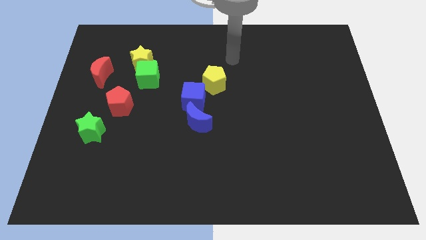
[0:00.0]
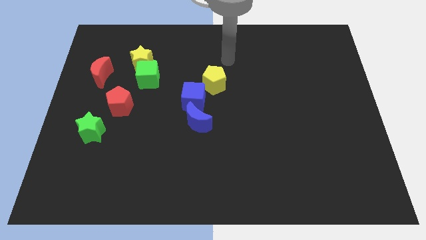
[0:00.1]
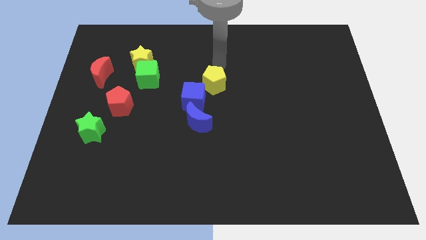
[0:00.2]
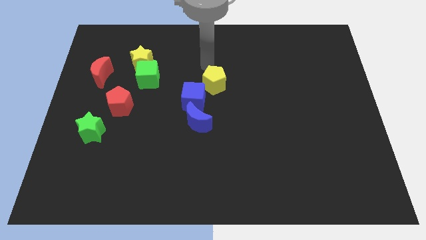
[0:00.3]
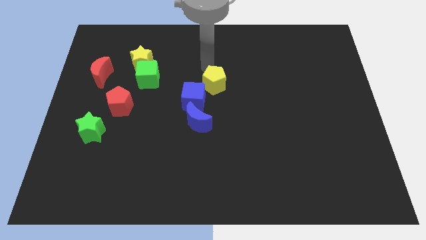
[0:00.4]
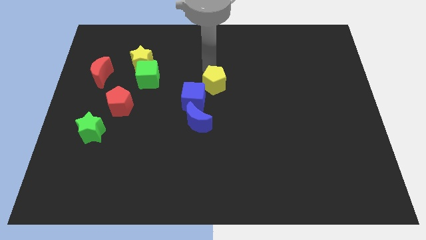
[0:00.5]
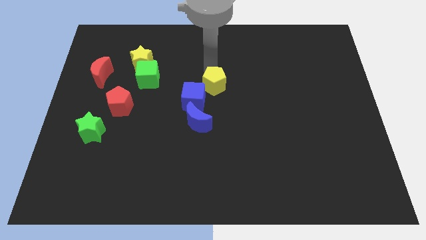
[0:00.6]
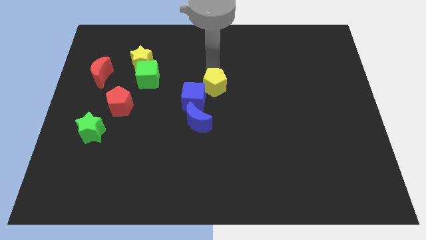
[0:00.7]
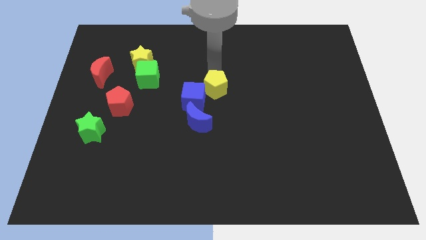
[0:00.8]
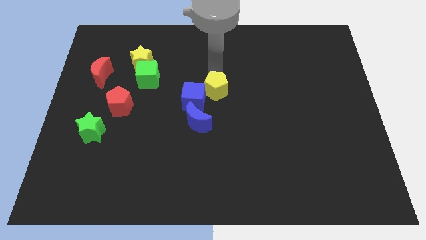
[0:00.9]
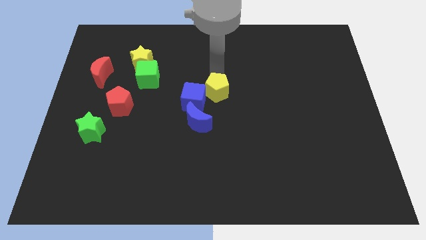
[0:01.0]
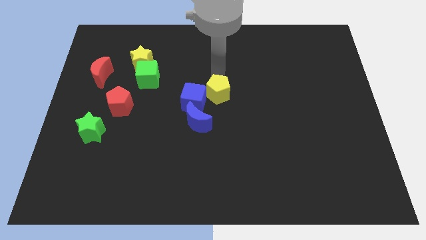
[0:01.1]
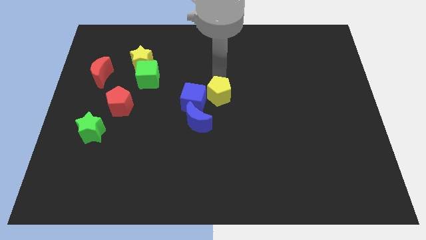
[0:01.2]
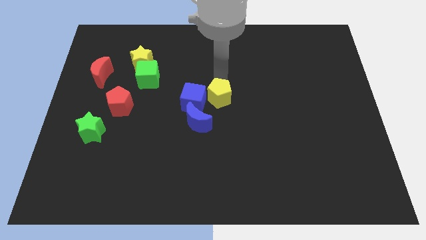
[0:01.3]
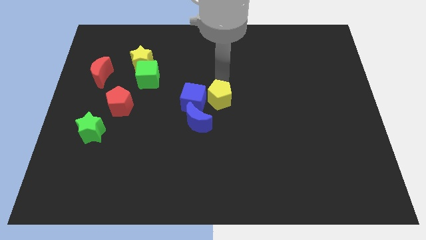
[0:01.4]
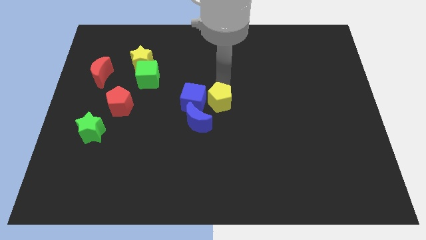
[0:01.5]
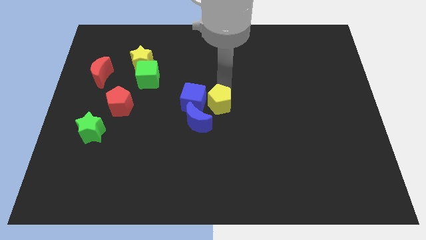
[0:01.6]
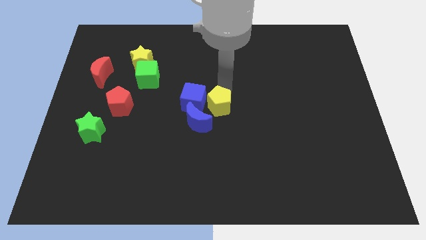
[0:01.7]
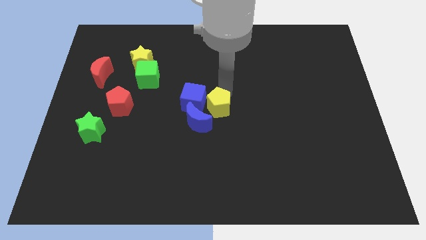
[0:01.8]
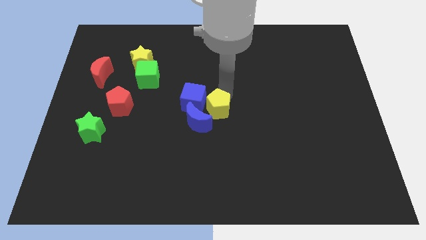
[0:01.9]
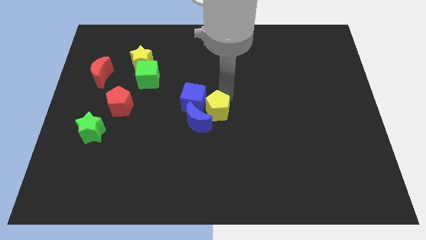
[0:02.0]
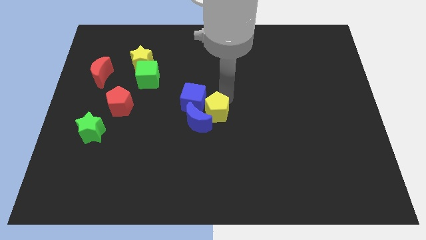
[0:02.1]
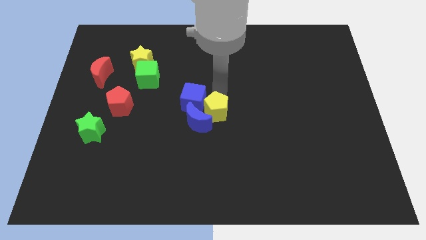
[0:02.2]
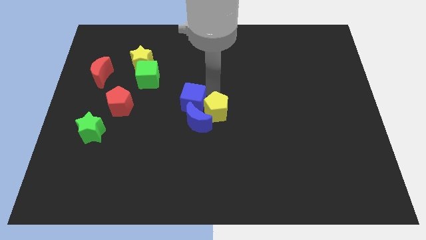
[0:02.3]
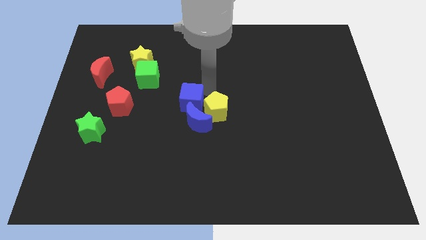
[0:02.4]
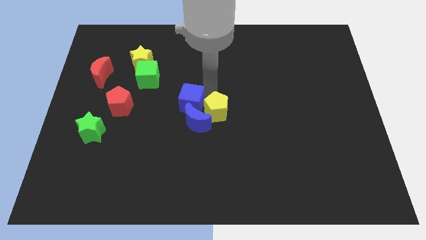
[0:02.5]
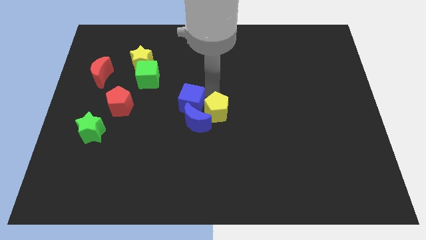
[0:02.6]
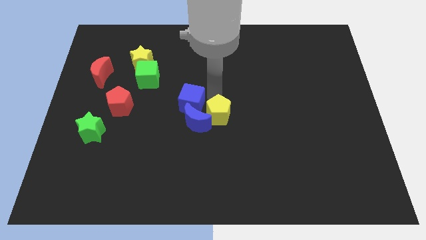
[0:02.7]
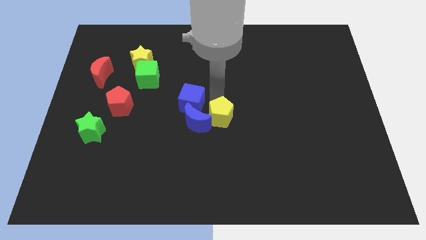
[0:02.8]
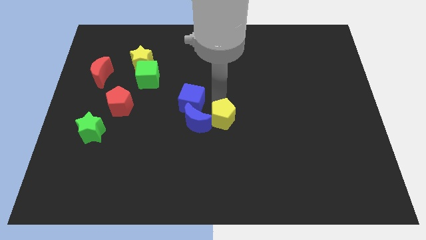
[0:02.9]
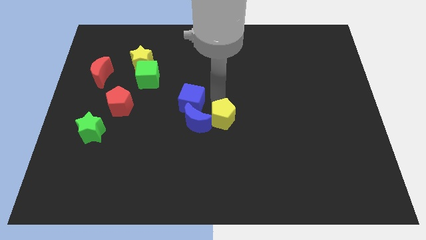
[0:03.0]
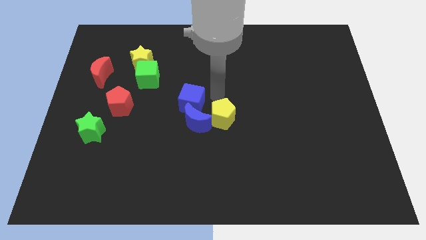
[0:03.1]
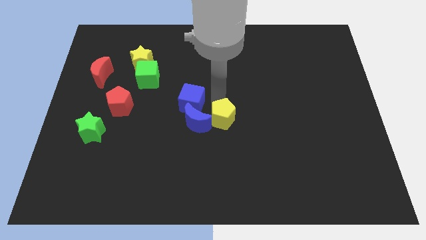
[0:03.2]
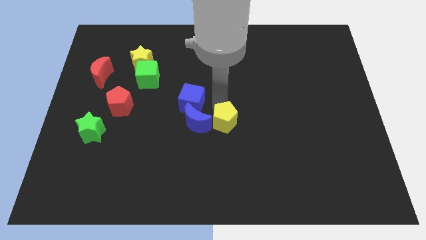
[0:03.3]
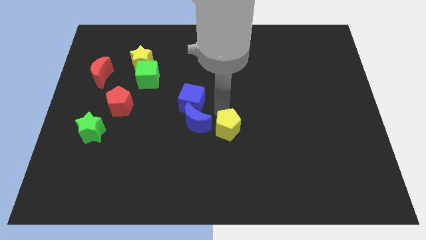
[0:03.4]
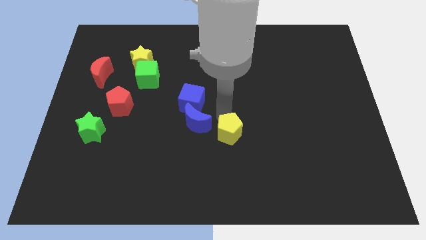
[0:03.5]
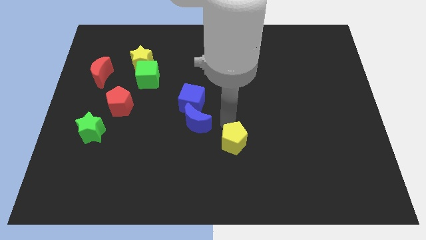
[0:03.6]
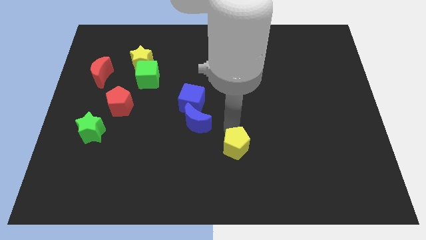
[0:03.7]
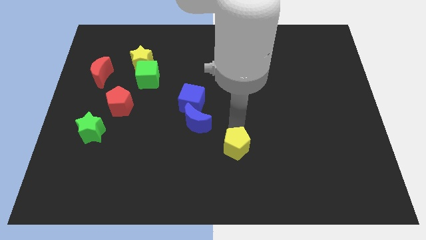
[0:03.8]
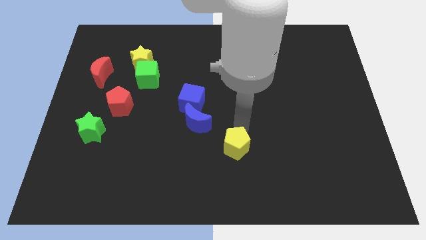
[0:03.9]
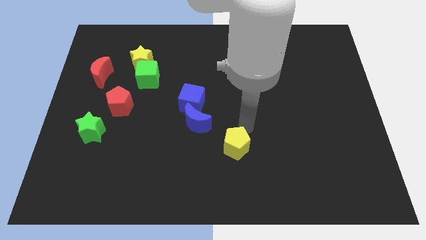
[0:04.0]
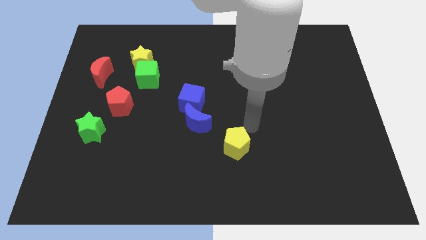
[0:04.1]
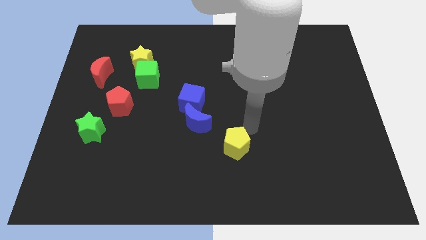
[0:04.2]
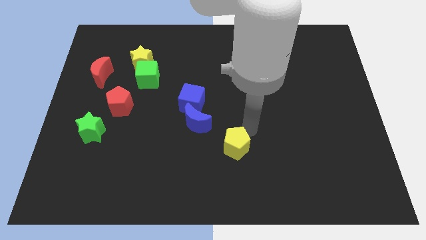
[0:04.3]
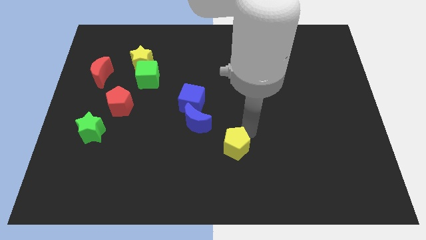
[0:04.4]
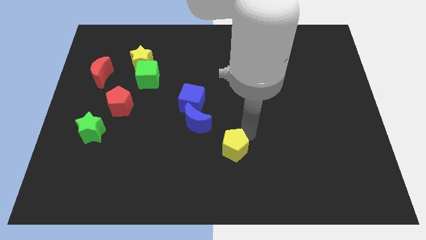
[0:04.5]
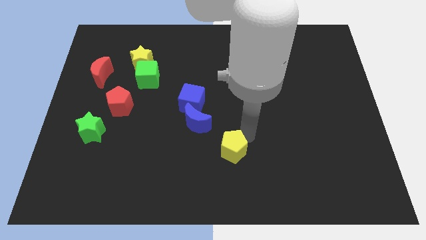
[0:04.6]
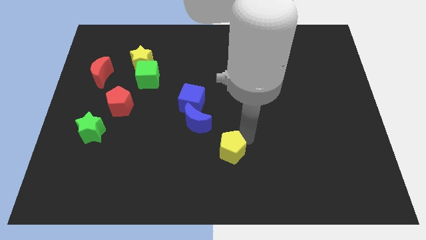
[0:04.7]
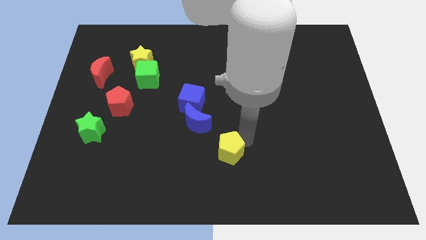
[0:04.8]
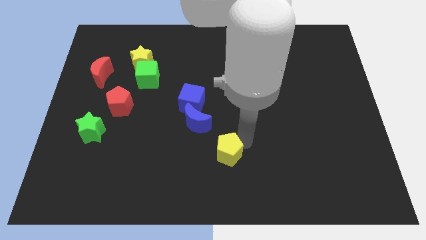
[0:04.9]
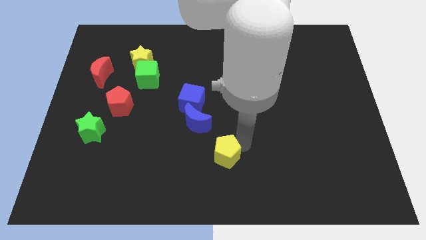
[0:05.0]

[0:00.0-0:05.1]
push the yellow pentagon to the bottom side

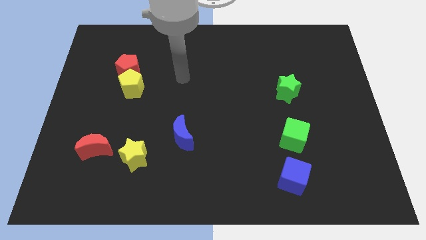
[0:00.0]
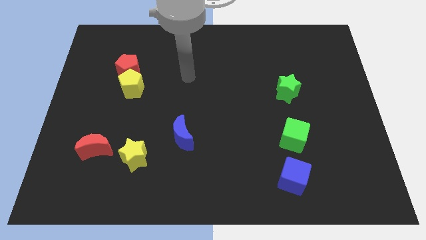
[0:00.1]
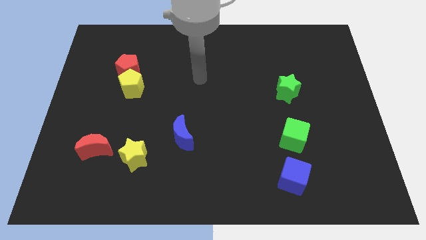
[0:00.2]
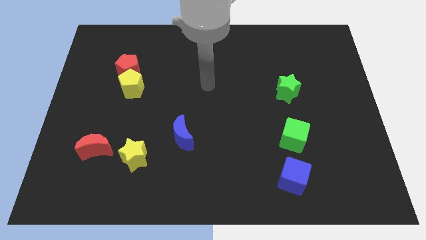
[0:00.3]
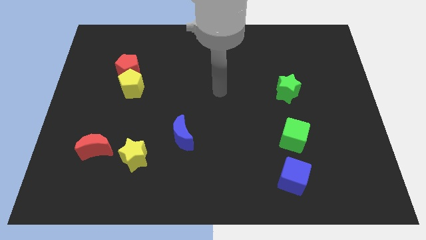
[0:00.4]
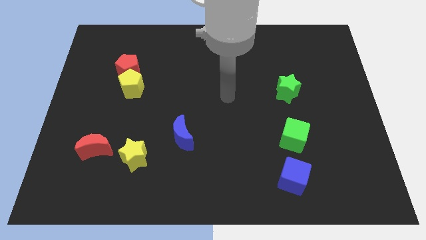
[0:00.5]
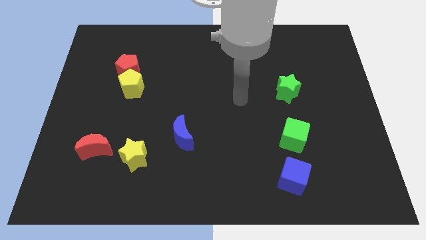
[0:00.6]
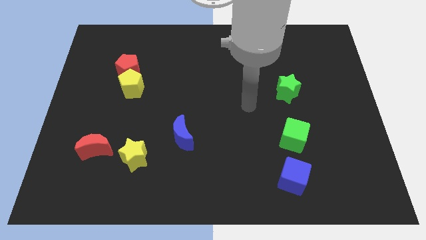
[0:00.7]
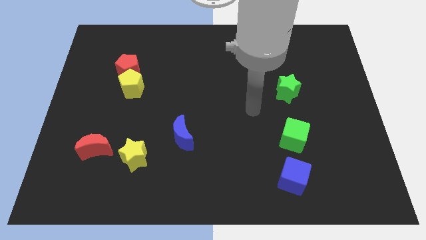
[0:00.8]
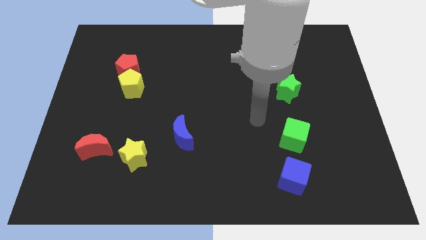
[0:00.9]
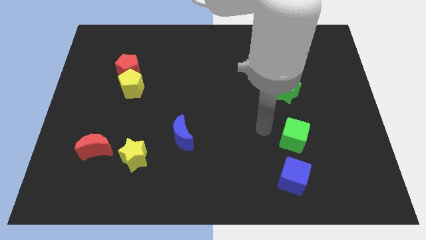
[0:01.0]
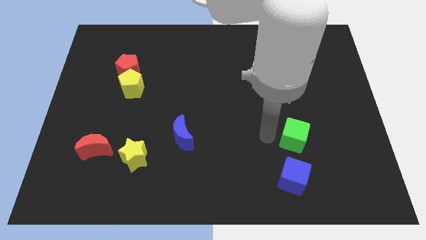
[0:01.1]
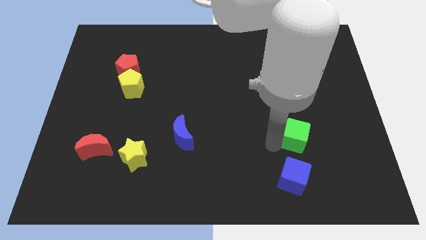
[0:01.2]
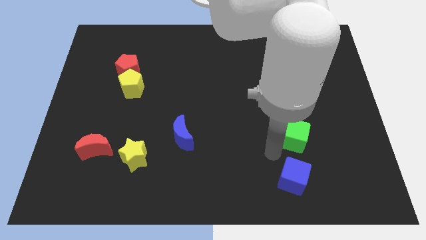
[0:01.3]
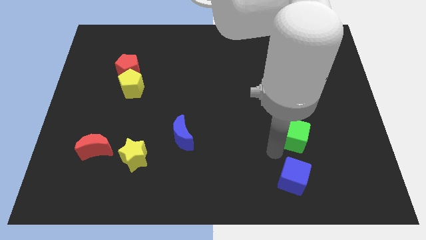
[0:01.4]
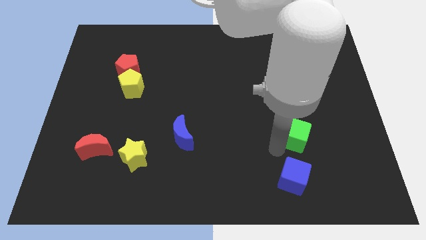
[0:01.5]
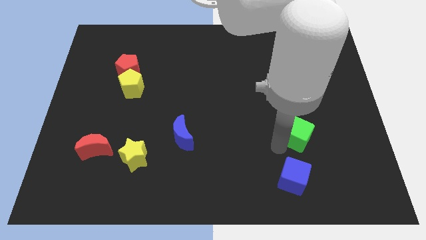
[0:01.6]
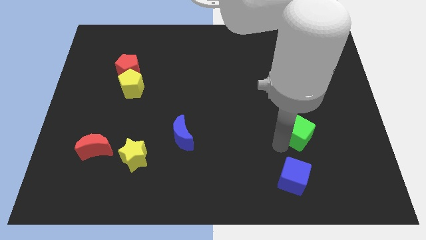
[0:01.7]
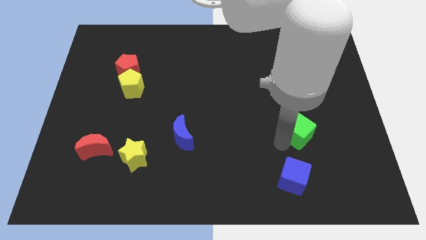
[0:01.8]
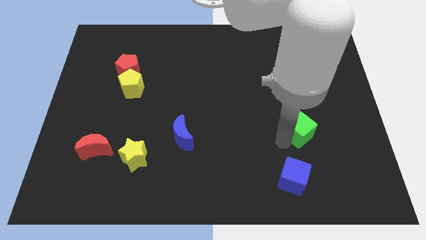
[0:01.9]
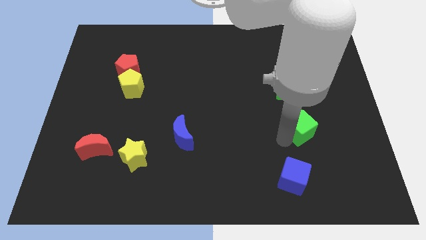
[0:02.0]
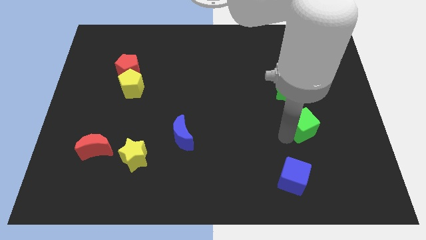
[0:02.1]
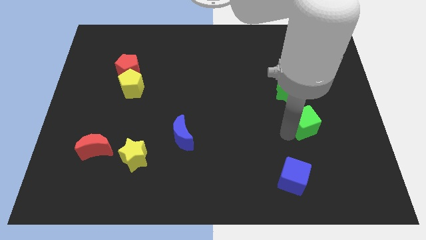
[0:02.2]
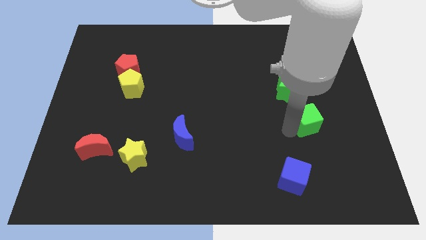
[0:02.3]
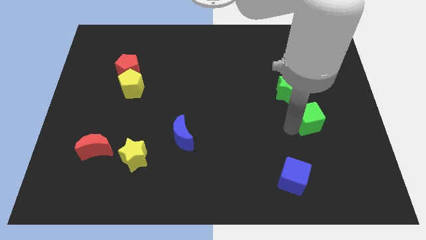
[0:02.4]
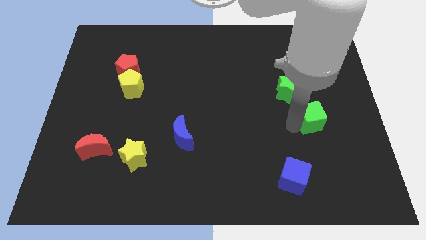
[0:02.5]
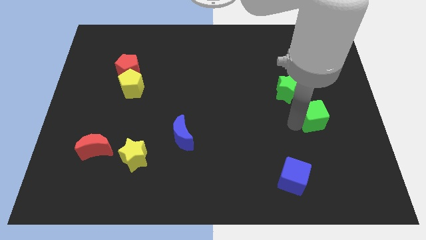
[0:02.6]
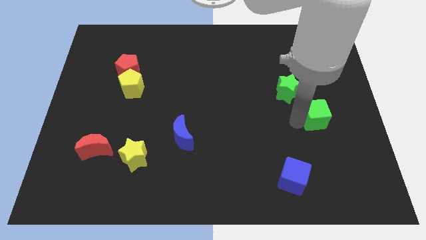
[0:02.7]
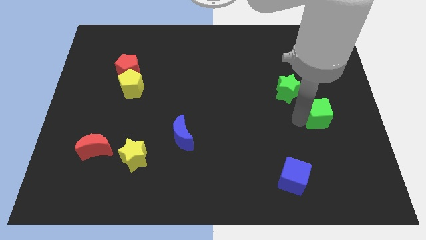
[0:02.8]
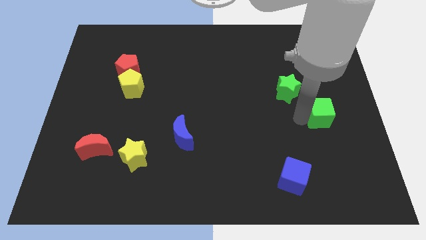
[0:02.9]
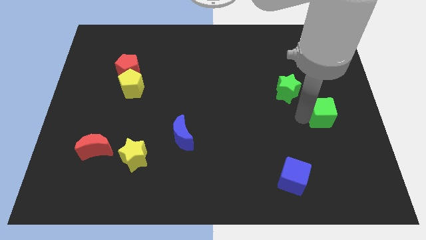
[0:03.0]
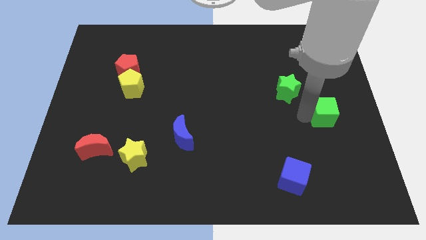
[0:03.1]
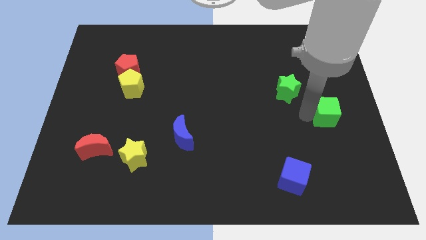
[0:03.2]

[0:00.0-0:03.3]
slide the green cube to the right side
